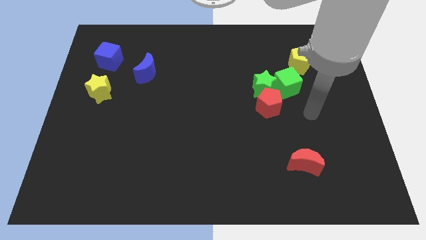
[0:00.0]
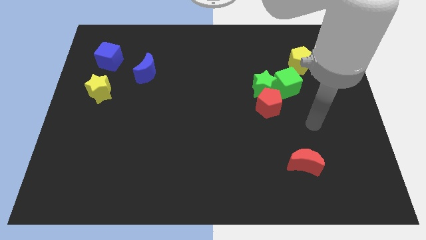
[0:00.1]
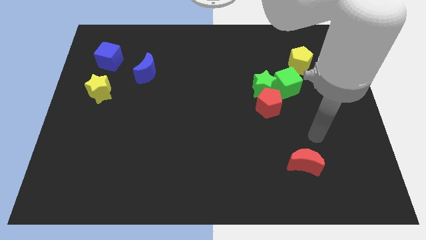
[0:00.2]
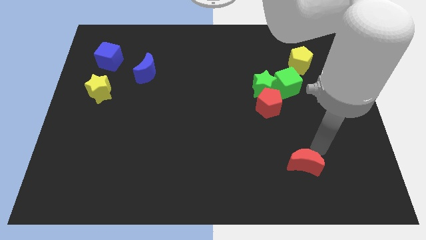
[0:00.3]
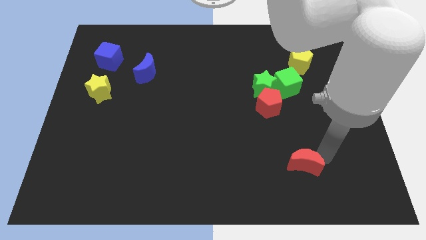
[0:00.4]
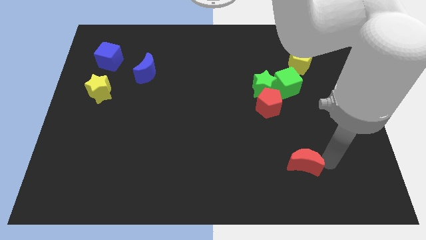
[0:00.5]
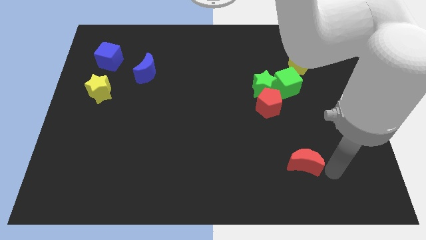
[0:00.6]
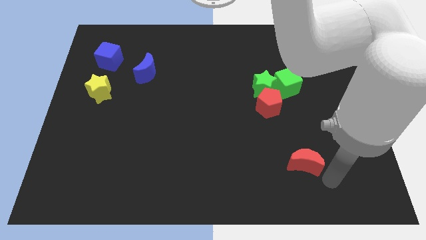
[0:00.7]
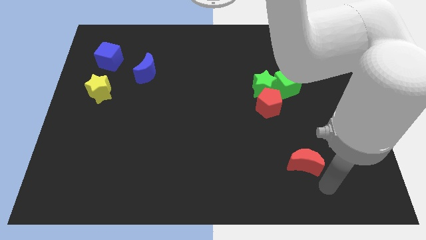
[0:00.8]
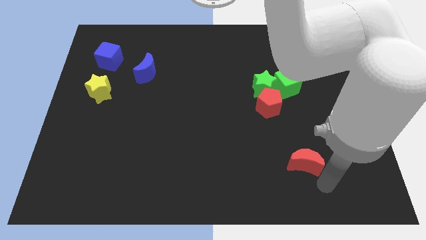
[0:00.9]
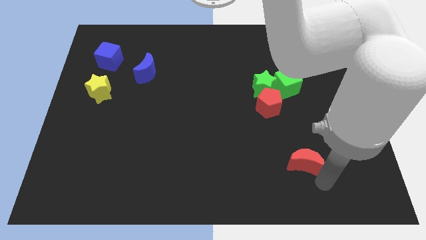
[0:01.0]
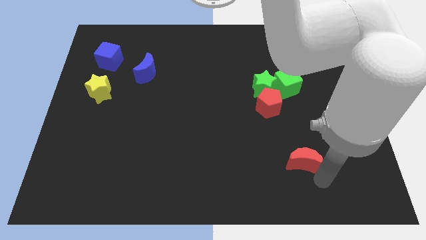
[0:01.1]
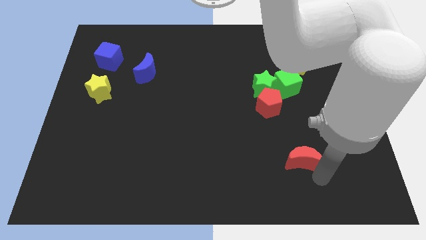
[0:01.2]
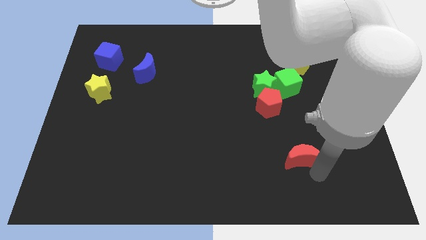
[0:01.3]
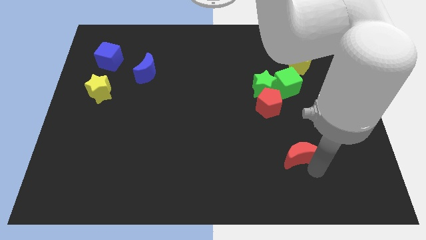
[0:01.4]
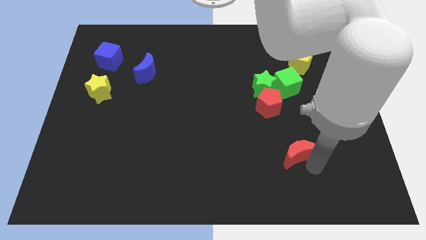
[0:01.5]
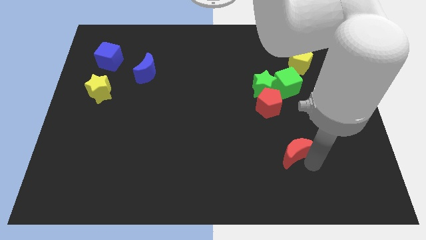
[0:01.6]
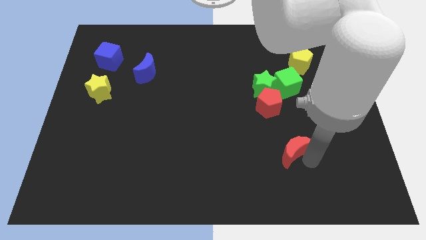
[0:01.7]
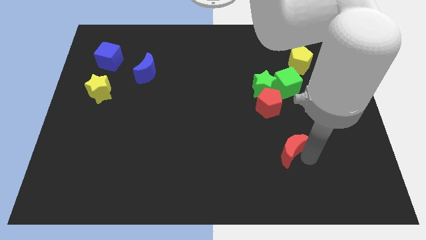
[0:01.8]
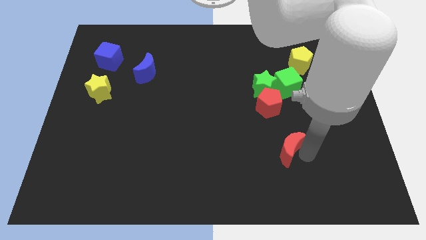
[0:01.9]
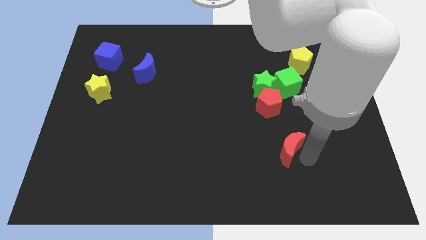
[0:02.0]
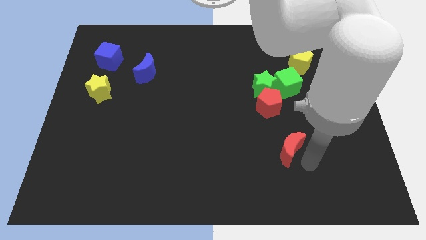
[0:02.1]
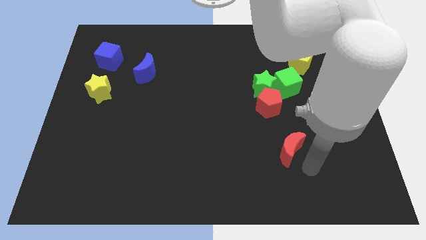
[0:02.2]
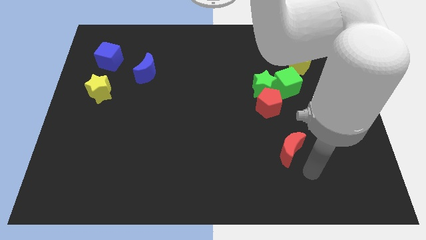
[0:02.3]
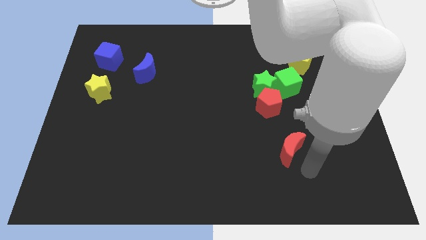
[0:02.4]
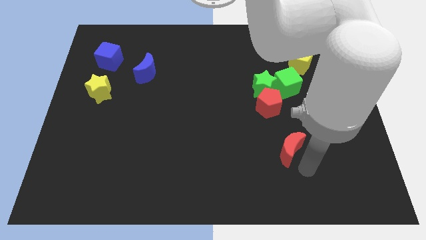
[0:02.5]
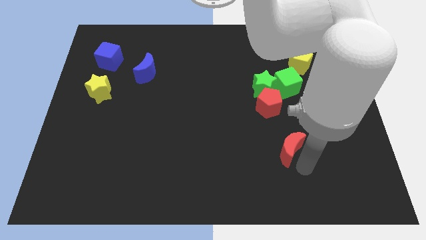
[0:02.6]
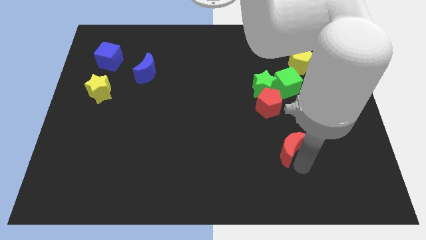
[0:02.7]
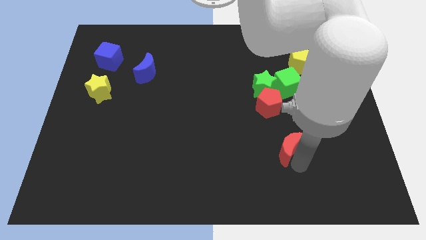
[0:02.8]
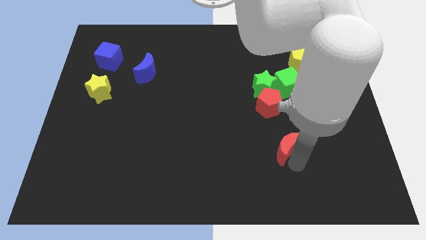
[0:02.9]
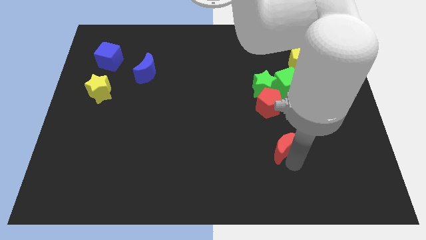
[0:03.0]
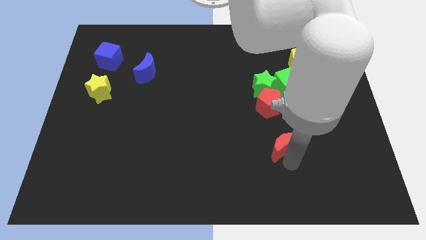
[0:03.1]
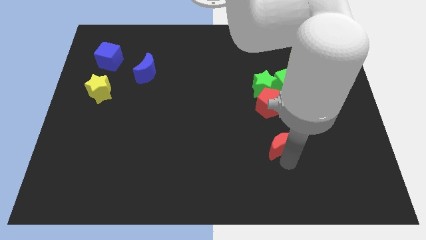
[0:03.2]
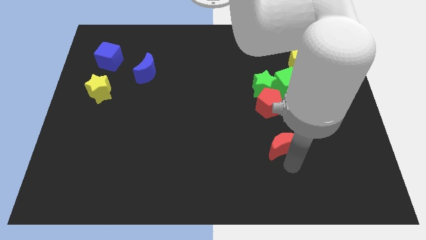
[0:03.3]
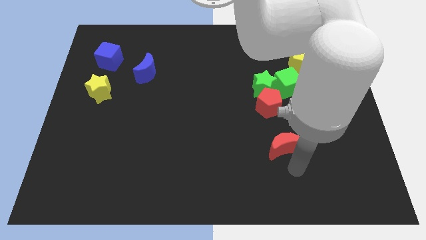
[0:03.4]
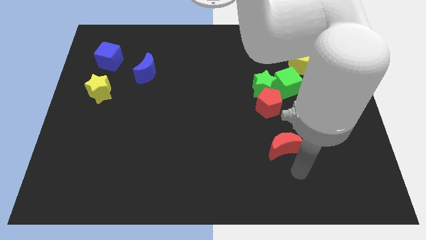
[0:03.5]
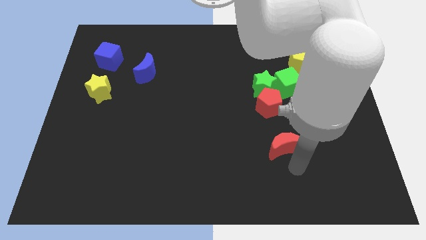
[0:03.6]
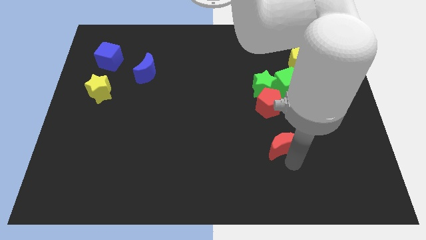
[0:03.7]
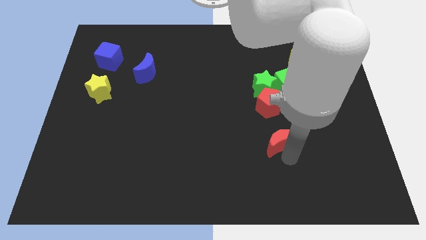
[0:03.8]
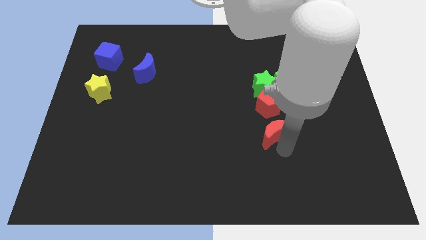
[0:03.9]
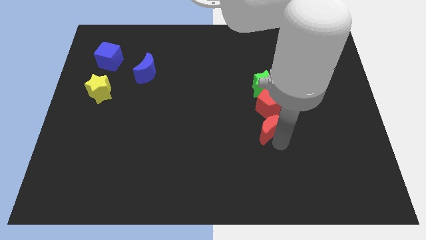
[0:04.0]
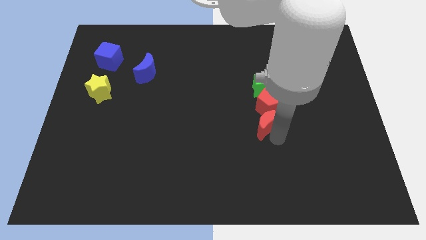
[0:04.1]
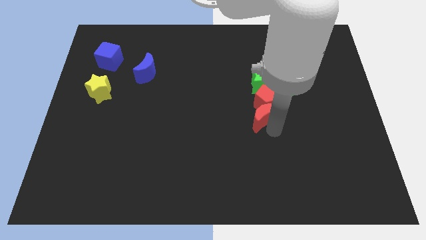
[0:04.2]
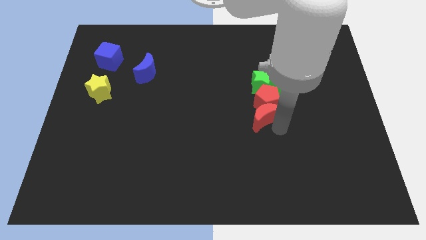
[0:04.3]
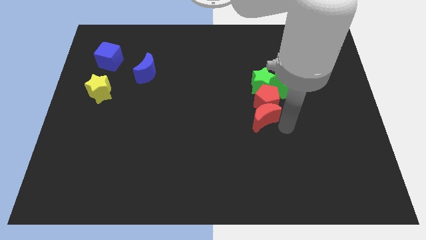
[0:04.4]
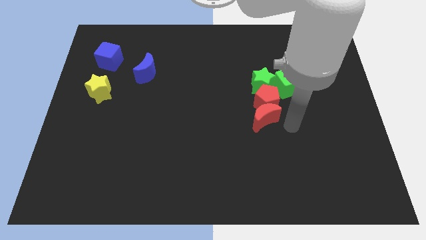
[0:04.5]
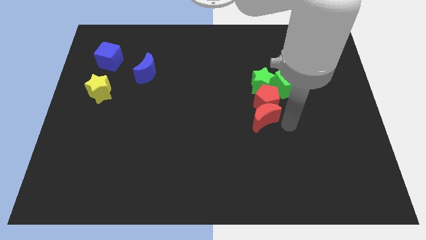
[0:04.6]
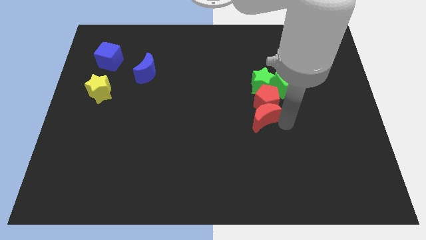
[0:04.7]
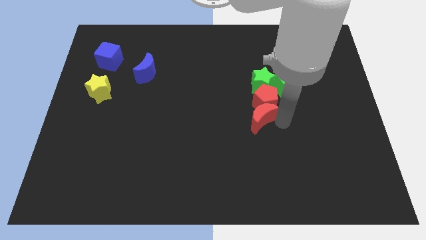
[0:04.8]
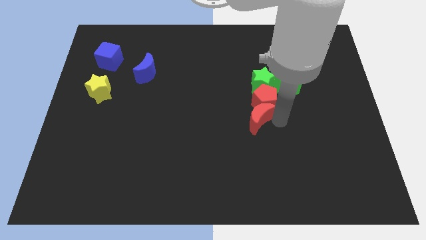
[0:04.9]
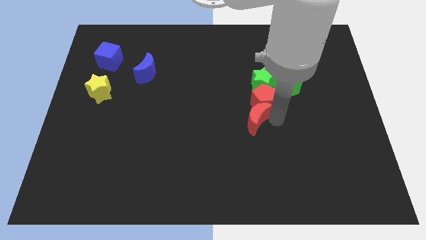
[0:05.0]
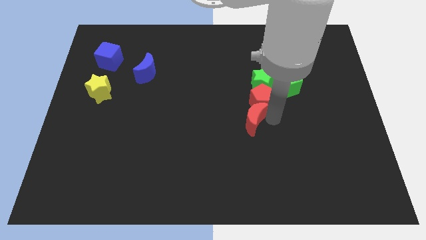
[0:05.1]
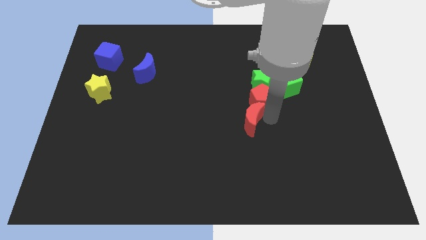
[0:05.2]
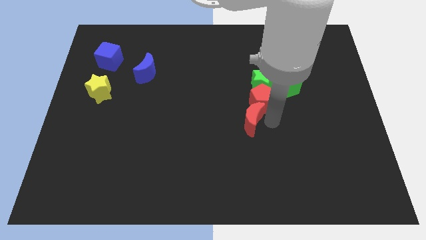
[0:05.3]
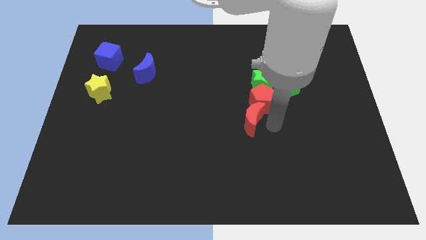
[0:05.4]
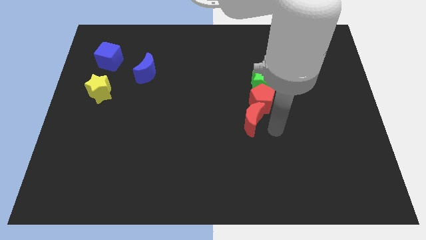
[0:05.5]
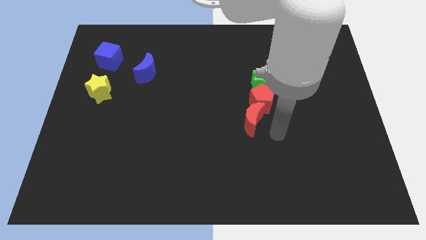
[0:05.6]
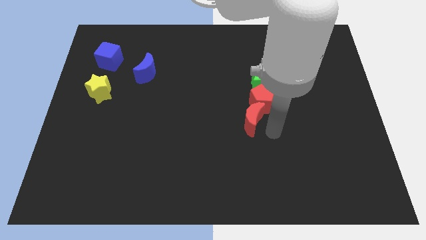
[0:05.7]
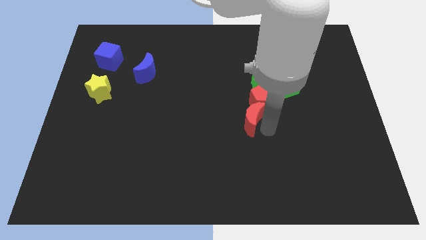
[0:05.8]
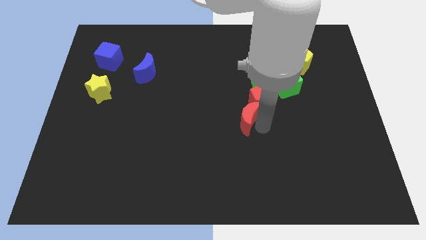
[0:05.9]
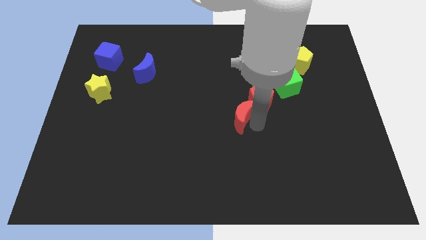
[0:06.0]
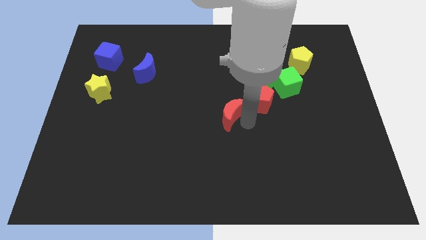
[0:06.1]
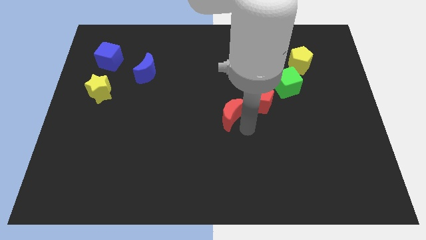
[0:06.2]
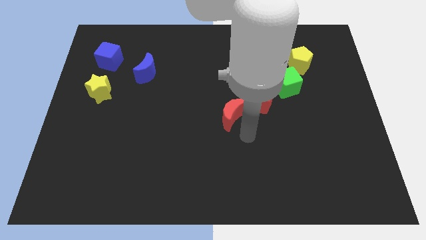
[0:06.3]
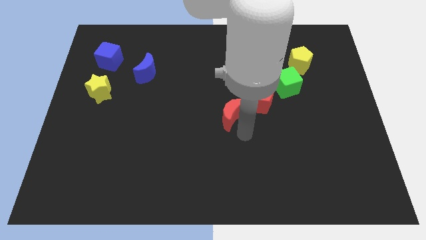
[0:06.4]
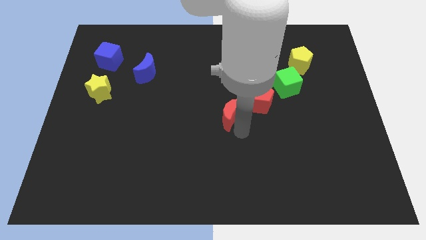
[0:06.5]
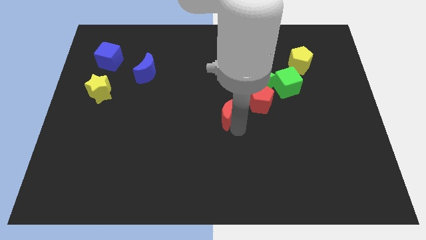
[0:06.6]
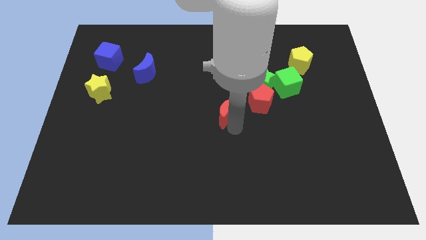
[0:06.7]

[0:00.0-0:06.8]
move the red moon diagonally up and to the left

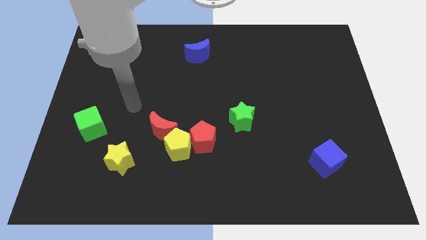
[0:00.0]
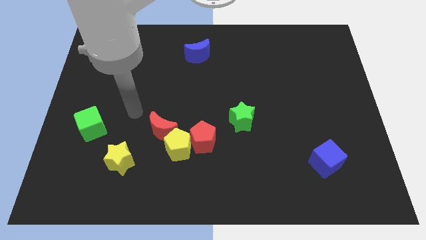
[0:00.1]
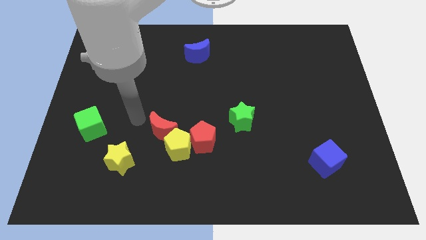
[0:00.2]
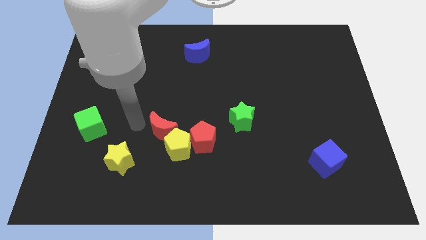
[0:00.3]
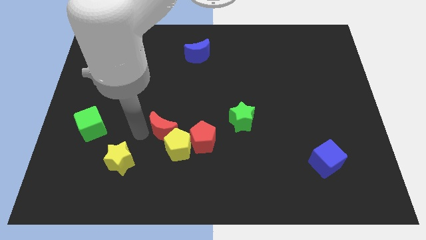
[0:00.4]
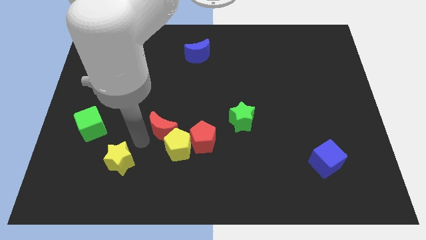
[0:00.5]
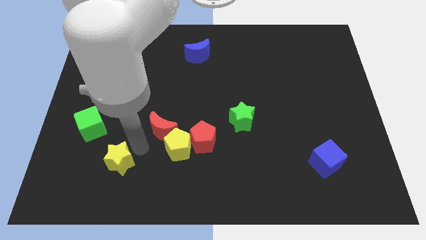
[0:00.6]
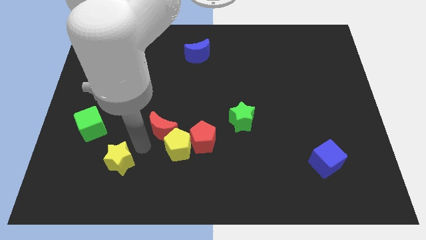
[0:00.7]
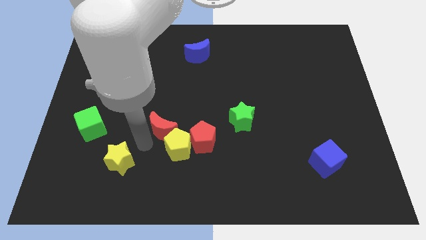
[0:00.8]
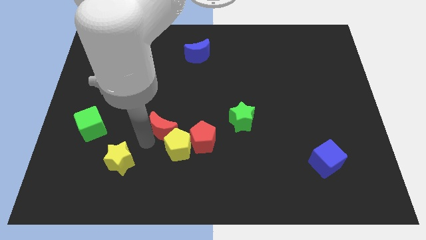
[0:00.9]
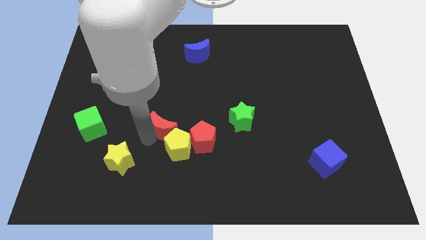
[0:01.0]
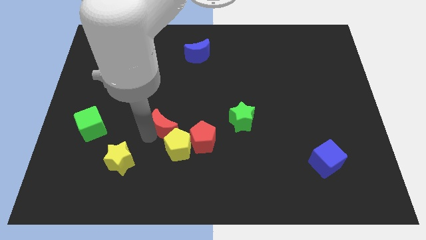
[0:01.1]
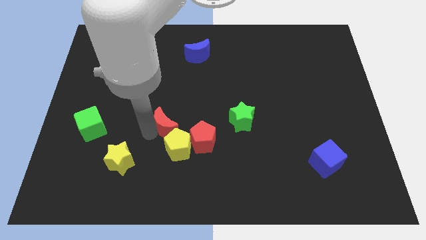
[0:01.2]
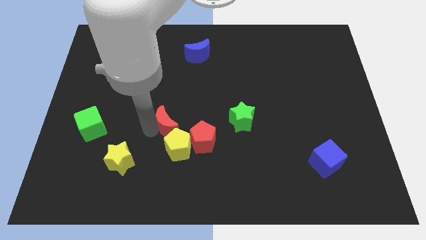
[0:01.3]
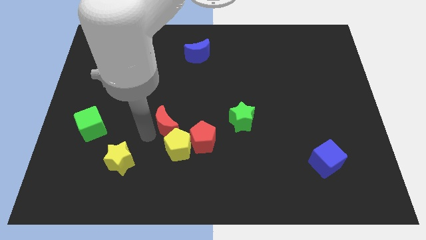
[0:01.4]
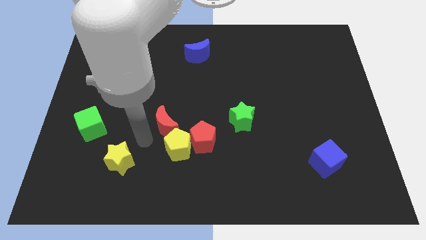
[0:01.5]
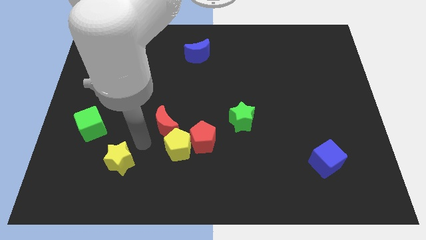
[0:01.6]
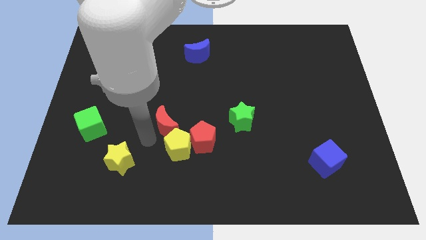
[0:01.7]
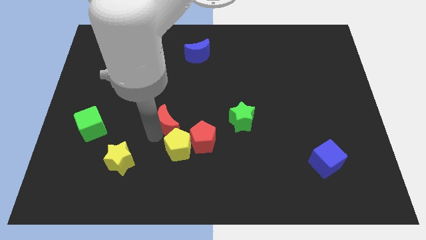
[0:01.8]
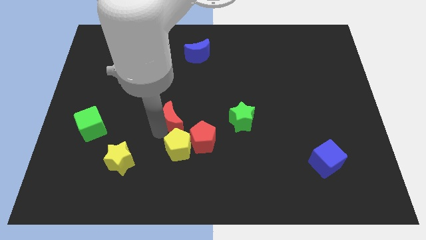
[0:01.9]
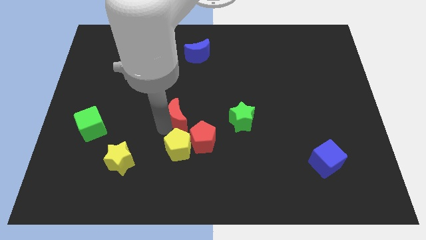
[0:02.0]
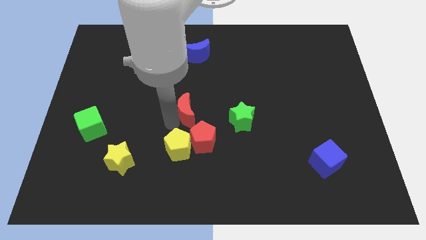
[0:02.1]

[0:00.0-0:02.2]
slightly move the red moon upwards and to the right
